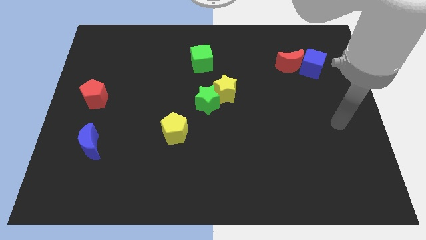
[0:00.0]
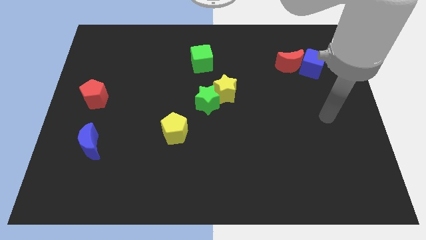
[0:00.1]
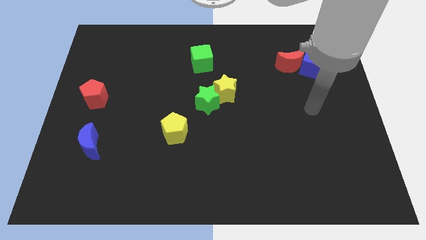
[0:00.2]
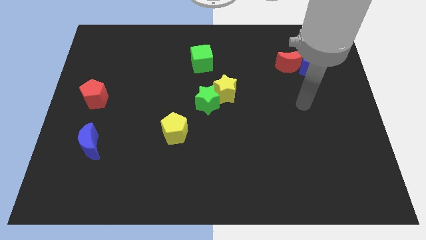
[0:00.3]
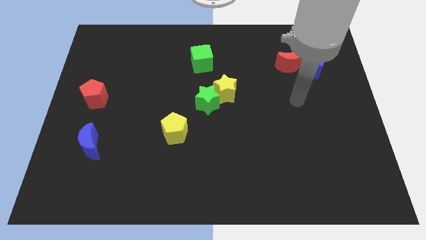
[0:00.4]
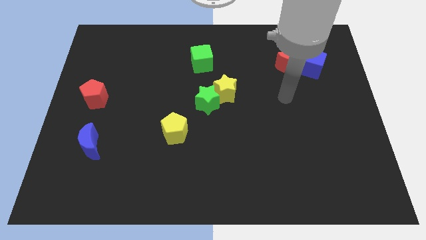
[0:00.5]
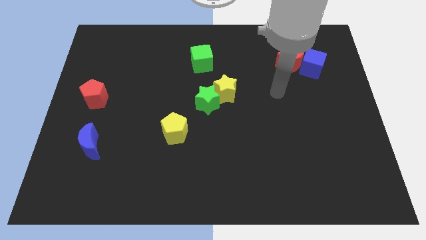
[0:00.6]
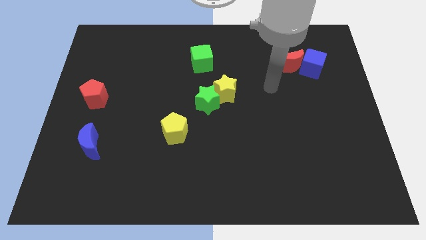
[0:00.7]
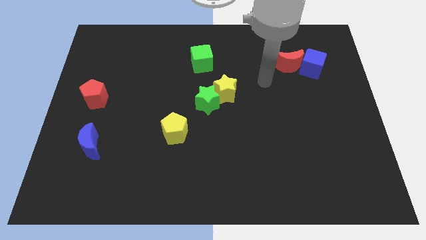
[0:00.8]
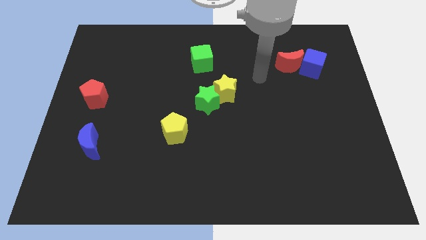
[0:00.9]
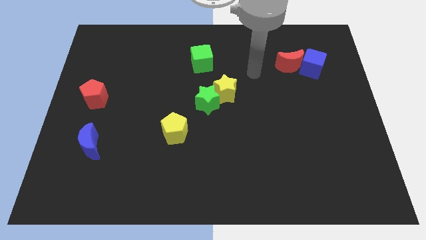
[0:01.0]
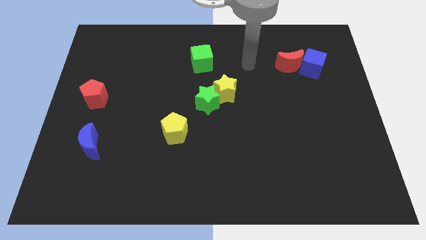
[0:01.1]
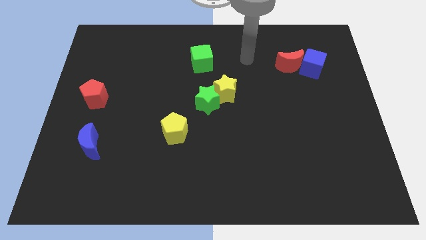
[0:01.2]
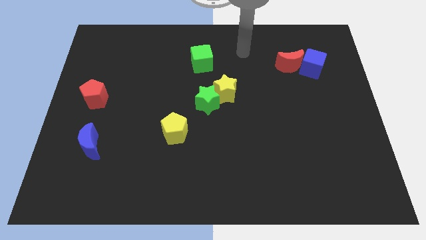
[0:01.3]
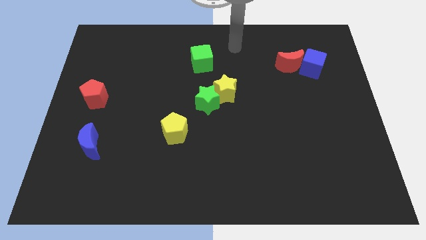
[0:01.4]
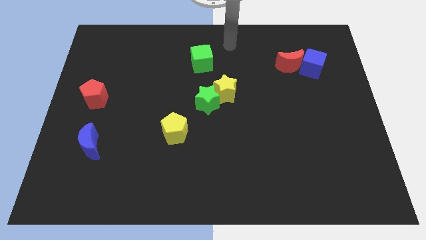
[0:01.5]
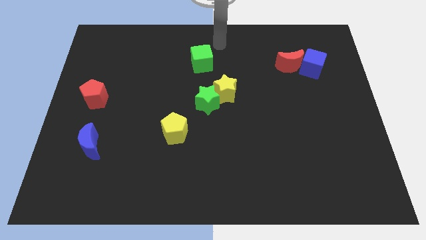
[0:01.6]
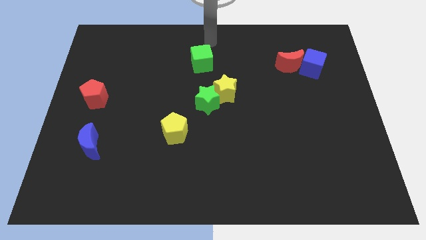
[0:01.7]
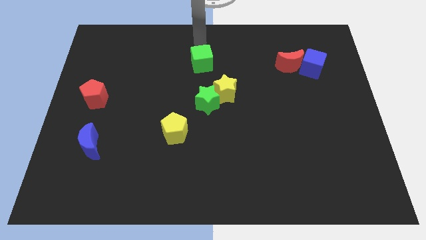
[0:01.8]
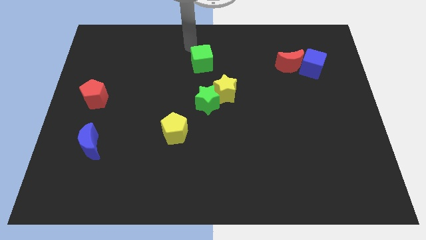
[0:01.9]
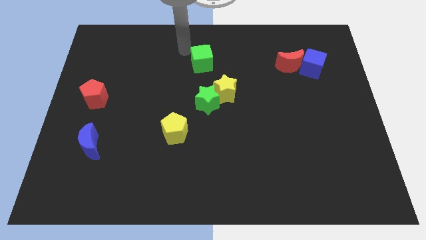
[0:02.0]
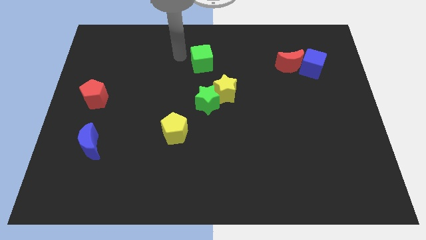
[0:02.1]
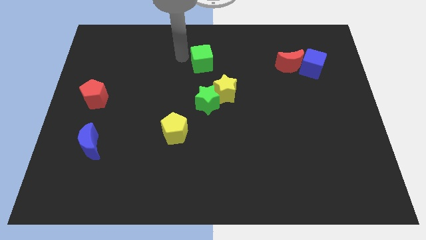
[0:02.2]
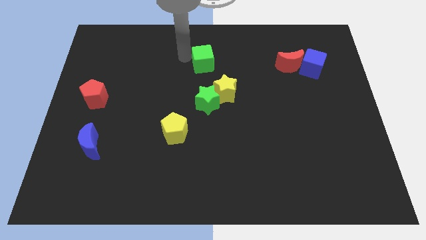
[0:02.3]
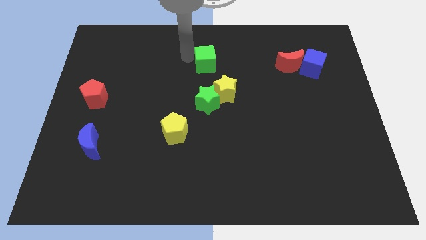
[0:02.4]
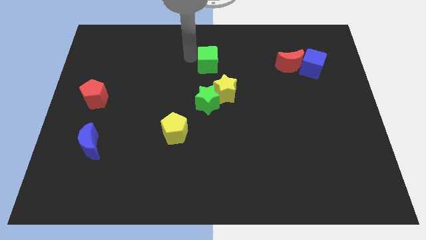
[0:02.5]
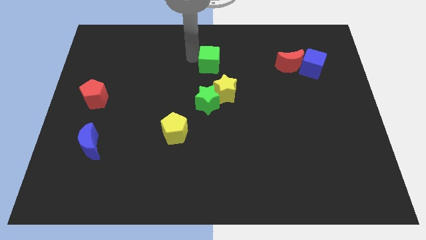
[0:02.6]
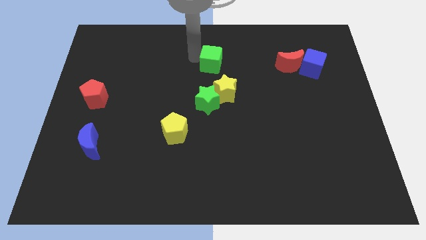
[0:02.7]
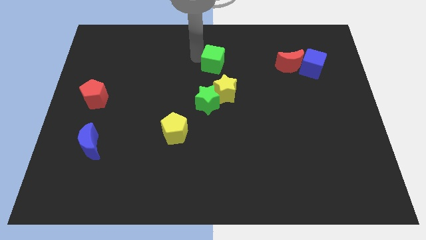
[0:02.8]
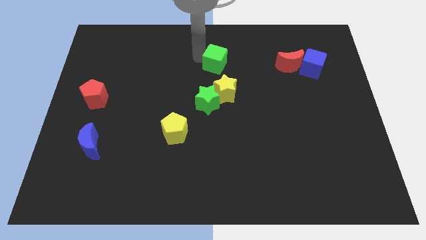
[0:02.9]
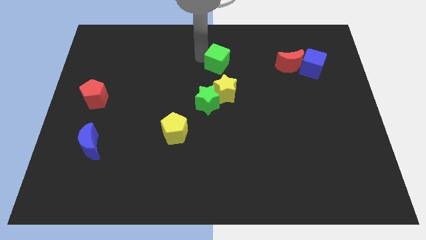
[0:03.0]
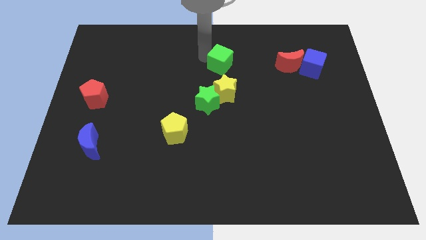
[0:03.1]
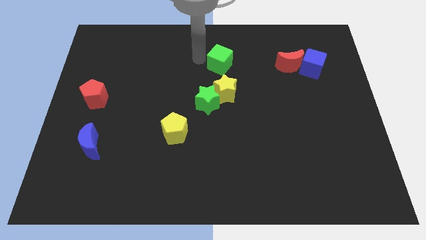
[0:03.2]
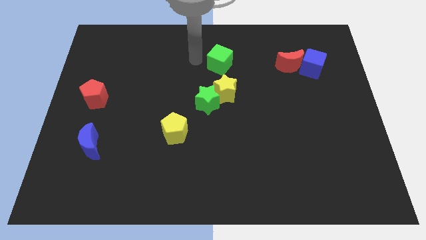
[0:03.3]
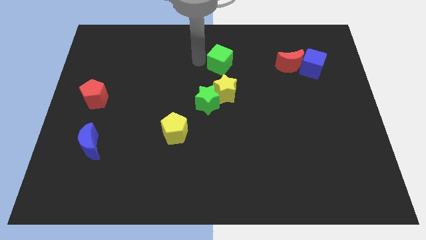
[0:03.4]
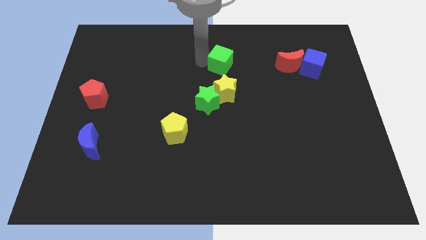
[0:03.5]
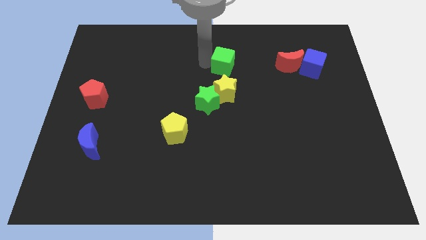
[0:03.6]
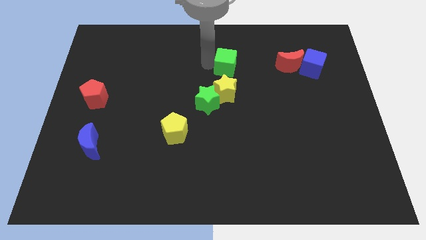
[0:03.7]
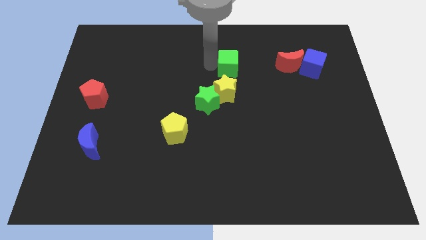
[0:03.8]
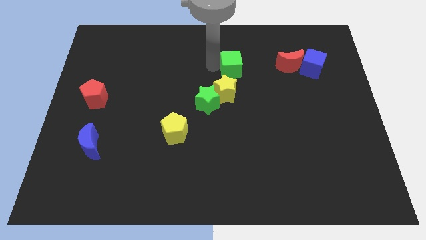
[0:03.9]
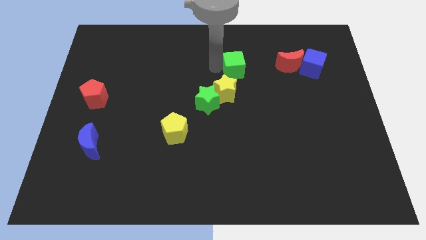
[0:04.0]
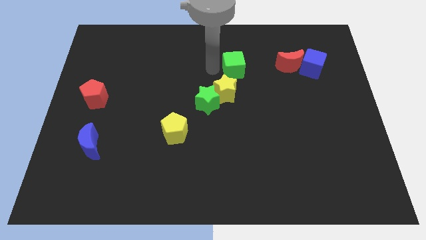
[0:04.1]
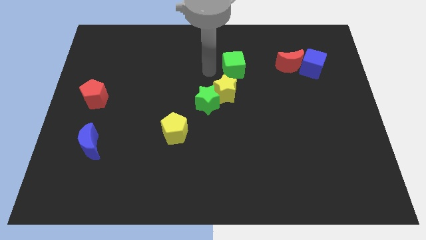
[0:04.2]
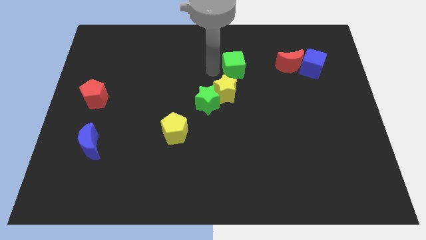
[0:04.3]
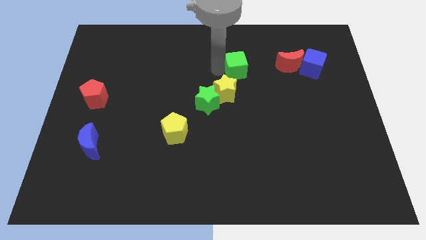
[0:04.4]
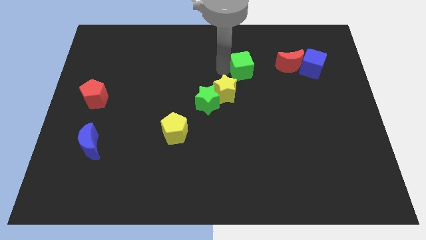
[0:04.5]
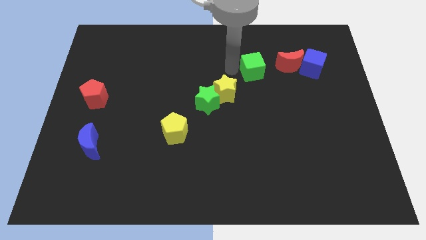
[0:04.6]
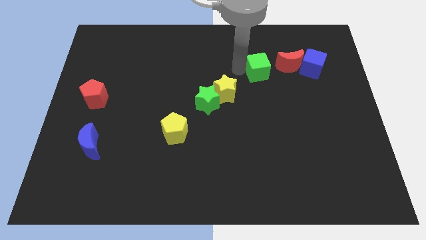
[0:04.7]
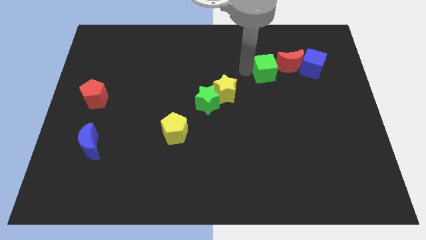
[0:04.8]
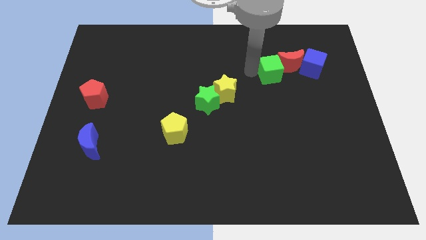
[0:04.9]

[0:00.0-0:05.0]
move the green cube towards the red moon

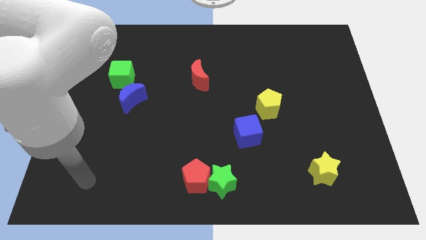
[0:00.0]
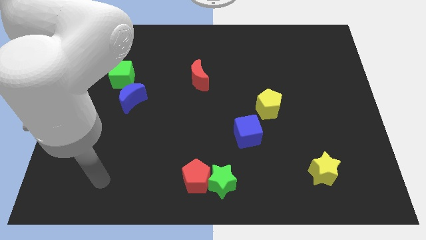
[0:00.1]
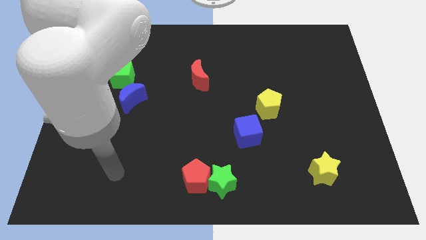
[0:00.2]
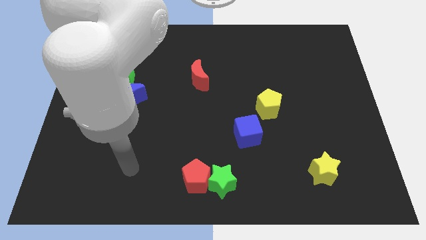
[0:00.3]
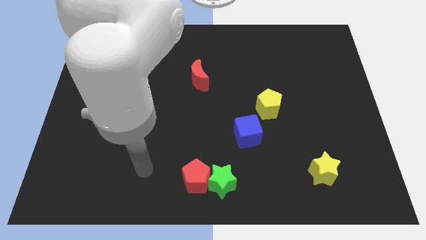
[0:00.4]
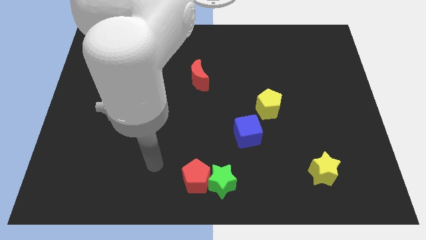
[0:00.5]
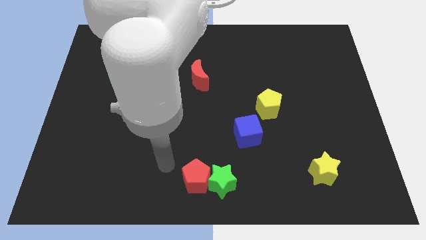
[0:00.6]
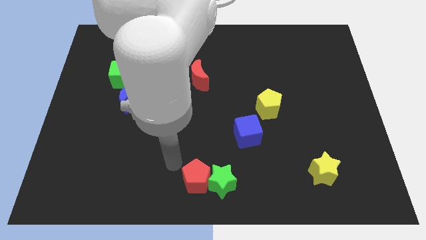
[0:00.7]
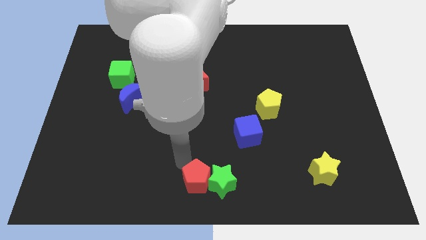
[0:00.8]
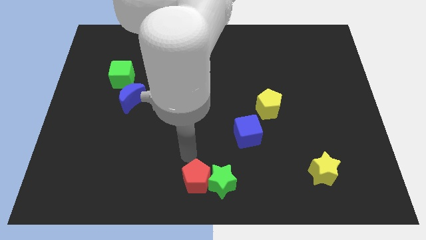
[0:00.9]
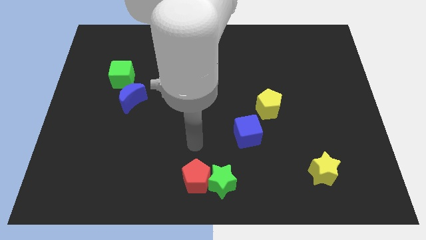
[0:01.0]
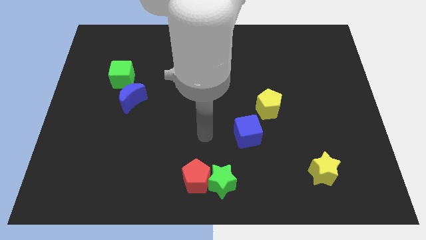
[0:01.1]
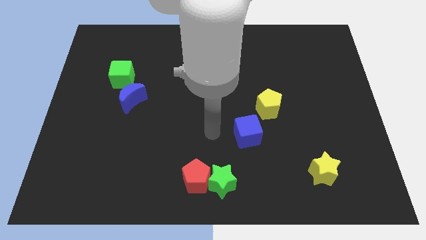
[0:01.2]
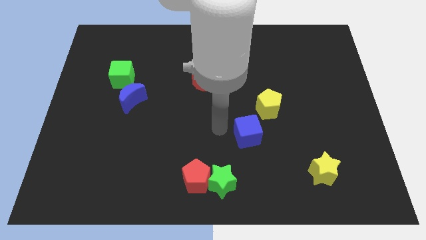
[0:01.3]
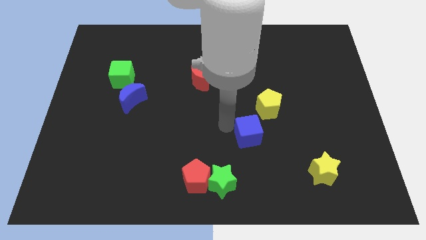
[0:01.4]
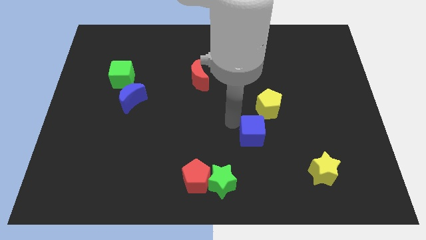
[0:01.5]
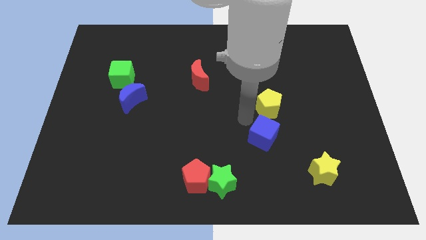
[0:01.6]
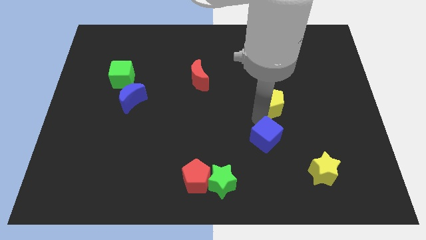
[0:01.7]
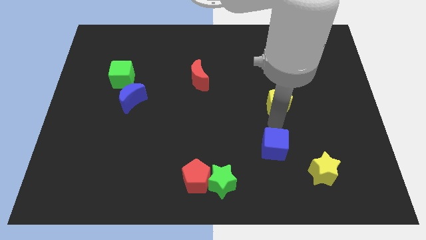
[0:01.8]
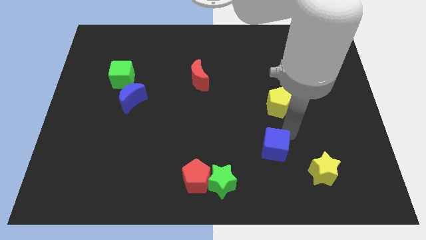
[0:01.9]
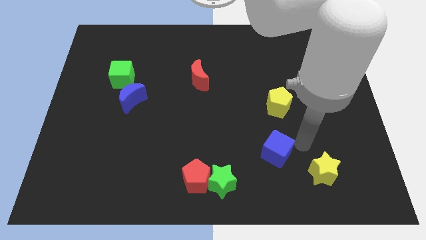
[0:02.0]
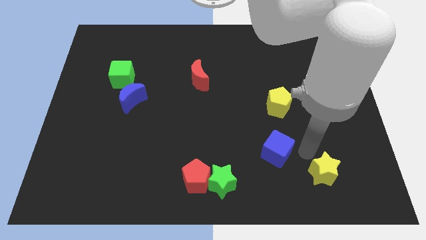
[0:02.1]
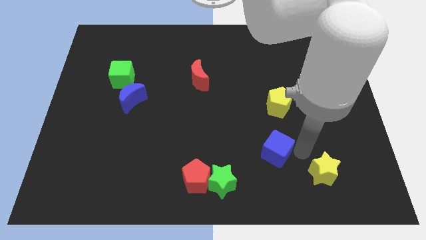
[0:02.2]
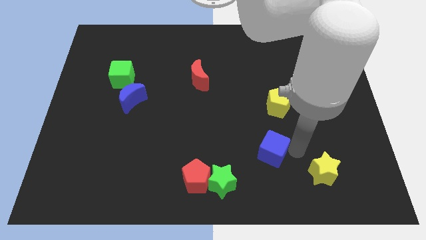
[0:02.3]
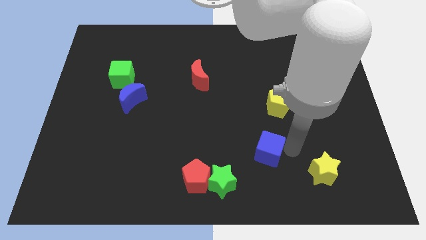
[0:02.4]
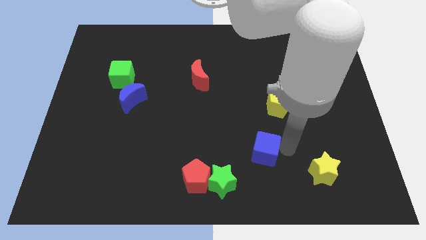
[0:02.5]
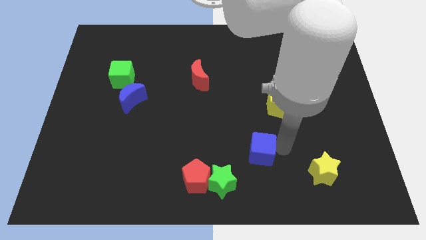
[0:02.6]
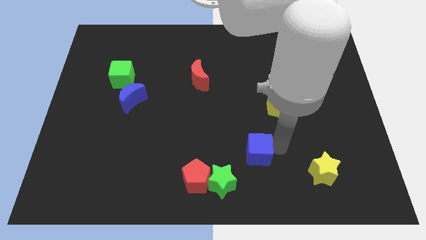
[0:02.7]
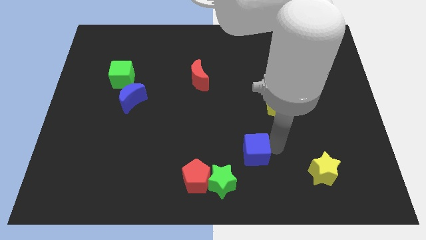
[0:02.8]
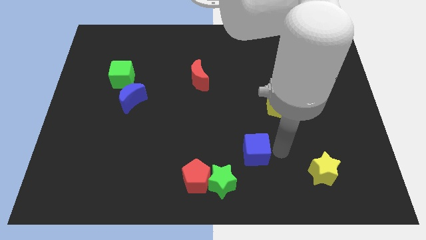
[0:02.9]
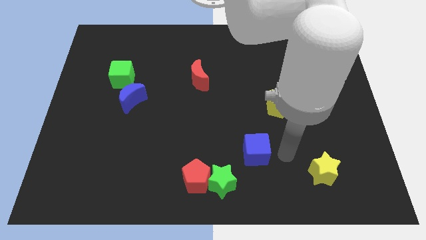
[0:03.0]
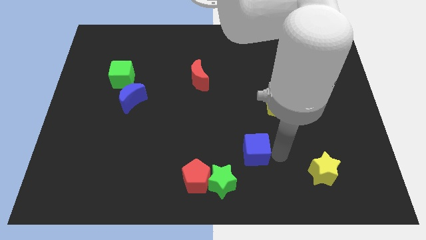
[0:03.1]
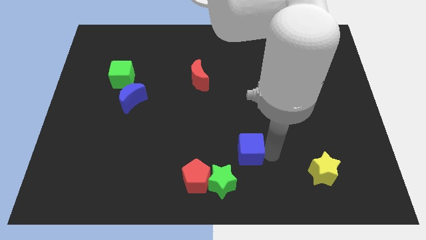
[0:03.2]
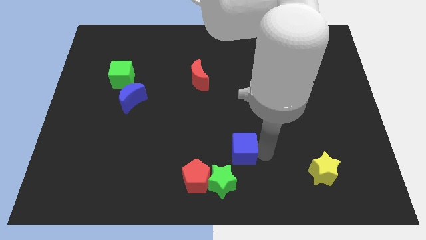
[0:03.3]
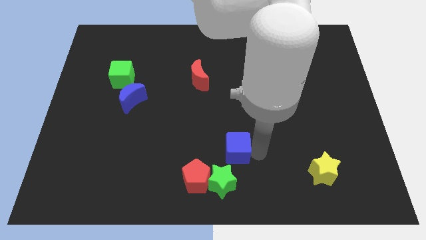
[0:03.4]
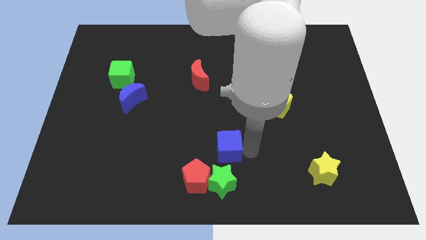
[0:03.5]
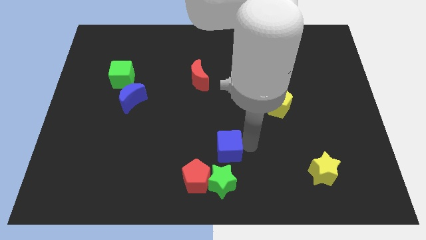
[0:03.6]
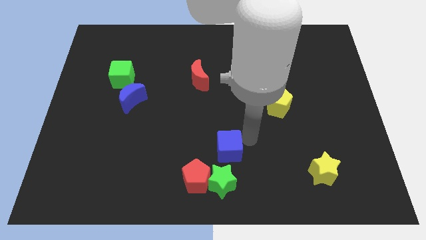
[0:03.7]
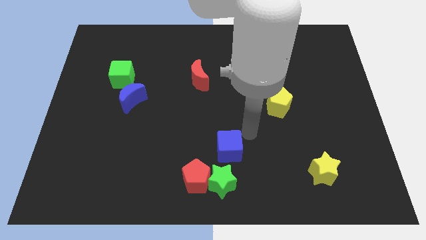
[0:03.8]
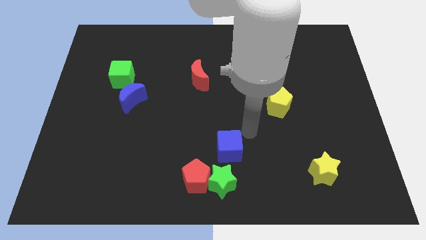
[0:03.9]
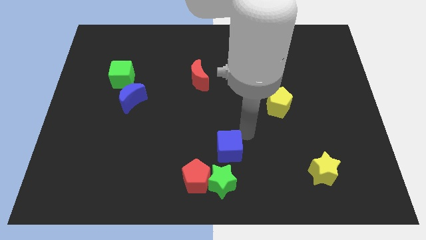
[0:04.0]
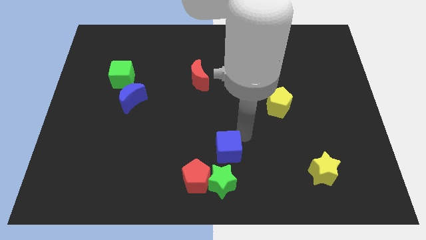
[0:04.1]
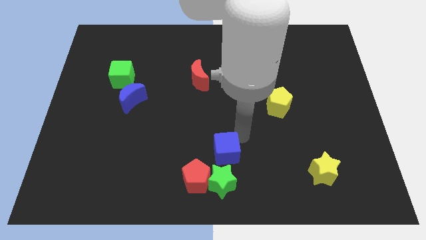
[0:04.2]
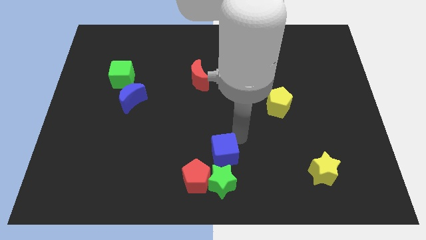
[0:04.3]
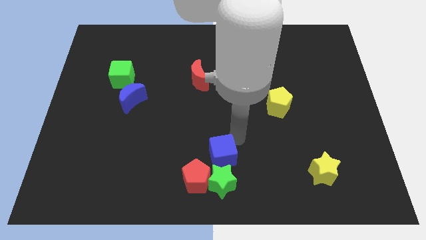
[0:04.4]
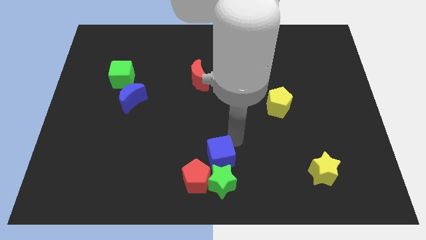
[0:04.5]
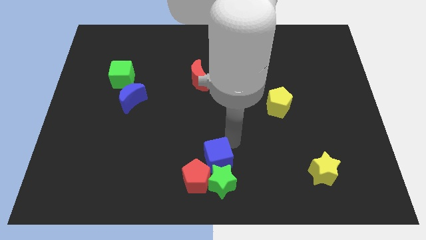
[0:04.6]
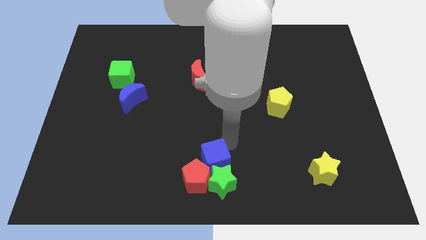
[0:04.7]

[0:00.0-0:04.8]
move the blue cube towards the red pentagon
